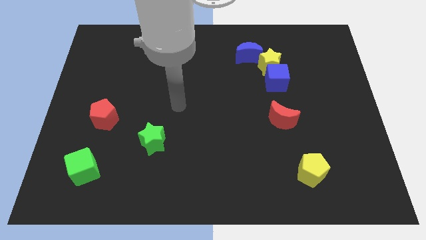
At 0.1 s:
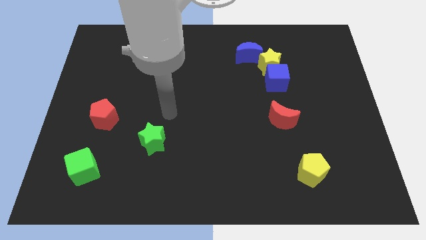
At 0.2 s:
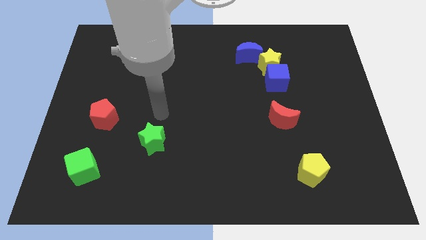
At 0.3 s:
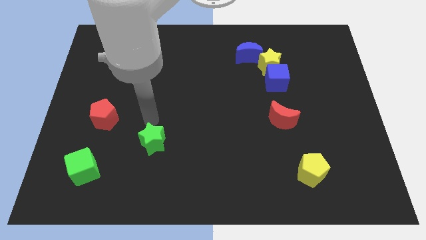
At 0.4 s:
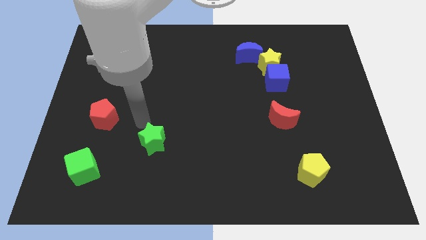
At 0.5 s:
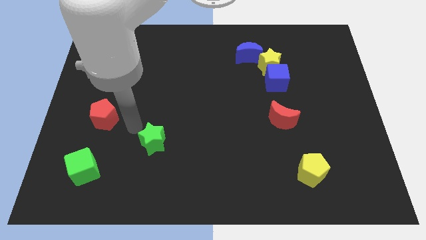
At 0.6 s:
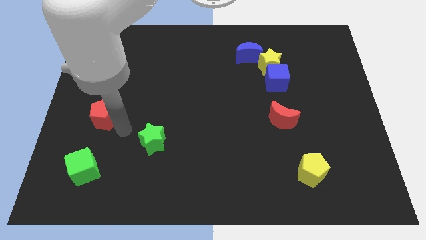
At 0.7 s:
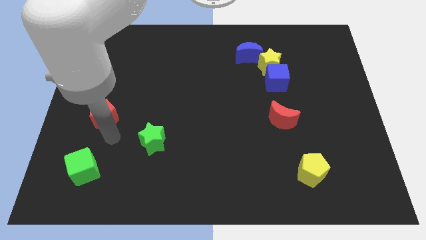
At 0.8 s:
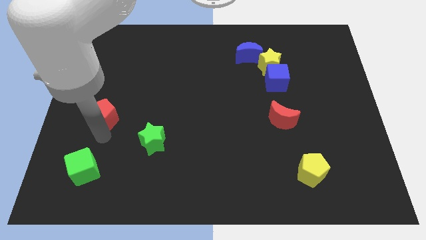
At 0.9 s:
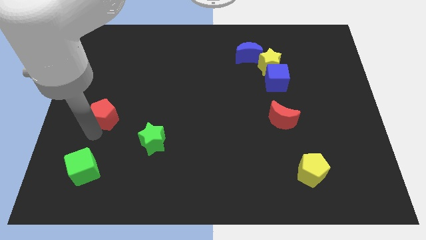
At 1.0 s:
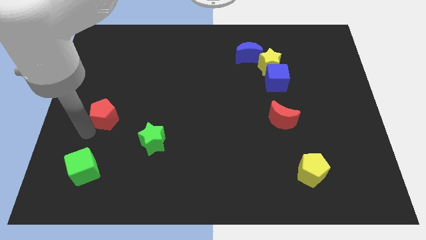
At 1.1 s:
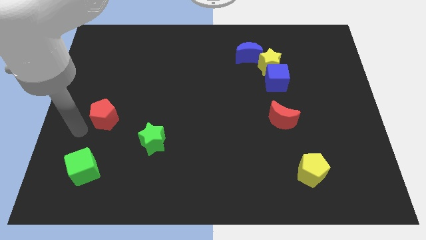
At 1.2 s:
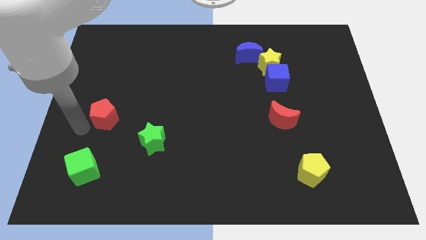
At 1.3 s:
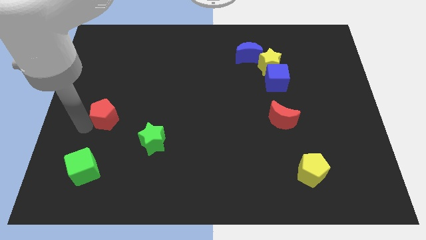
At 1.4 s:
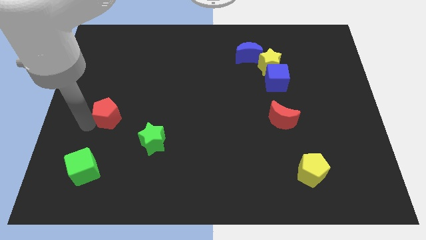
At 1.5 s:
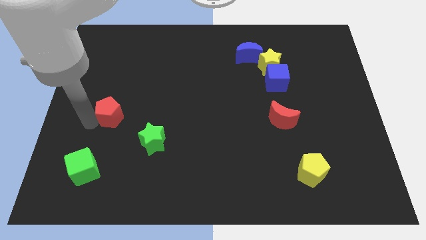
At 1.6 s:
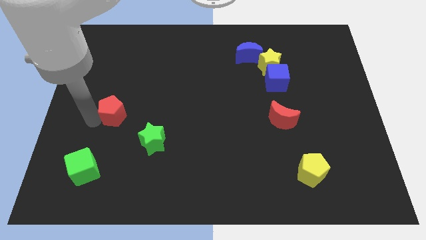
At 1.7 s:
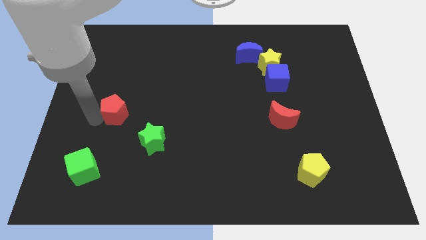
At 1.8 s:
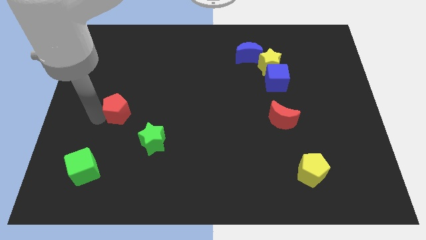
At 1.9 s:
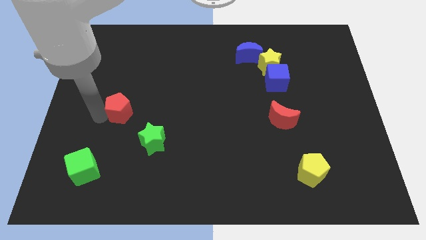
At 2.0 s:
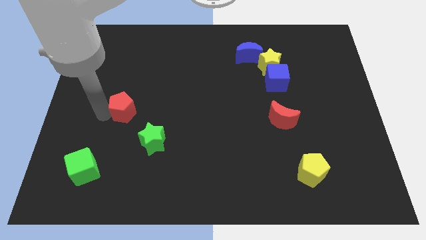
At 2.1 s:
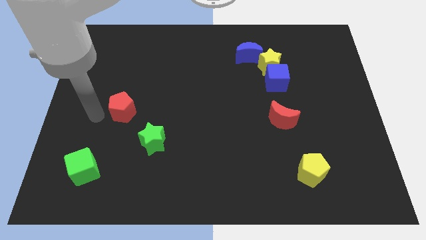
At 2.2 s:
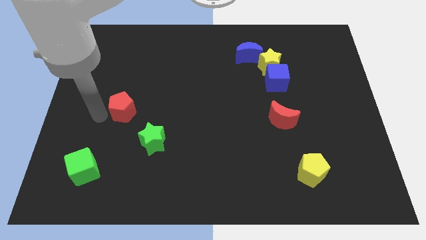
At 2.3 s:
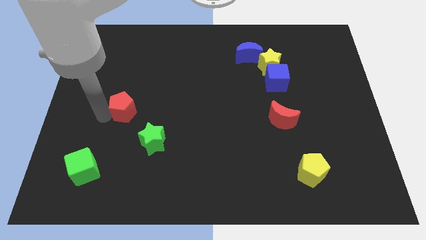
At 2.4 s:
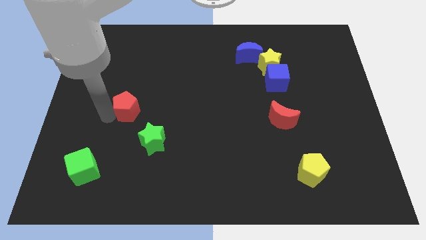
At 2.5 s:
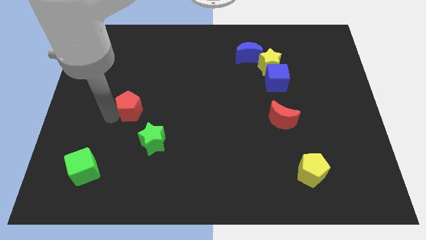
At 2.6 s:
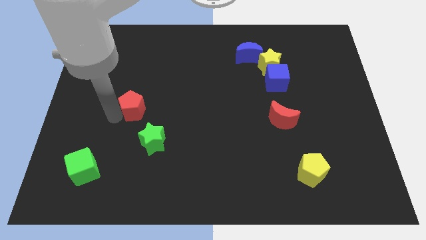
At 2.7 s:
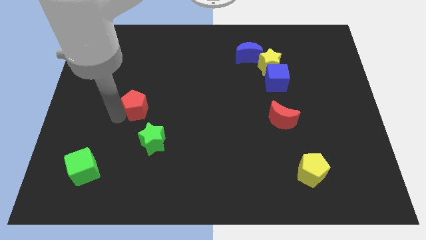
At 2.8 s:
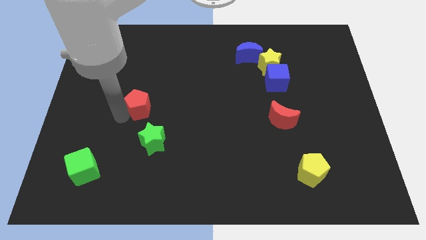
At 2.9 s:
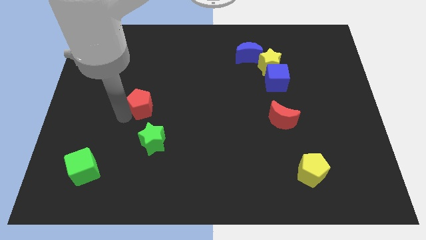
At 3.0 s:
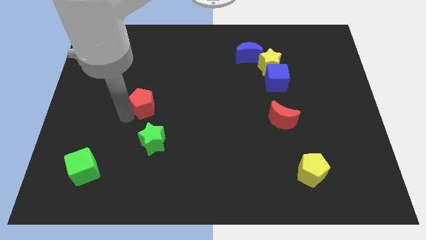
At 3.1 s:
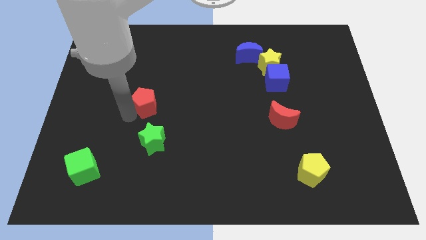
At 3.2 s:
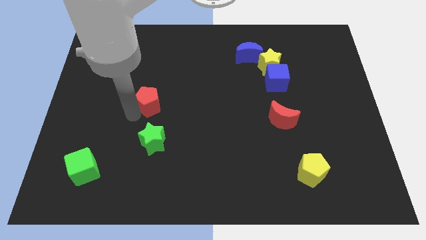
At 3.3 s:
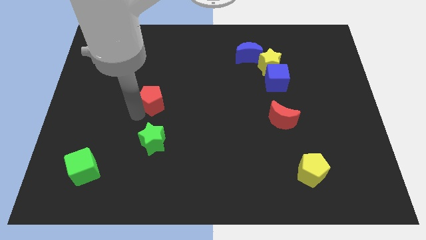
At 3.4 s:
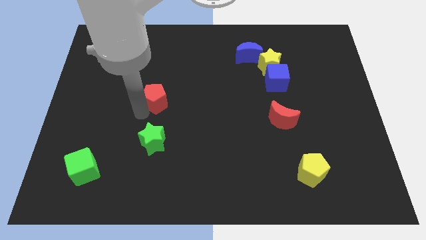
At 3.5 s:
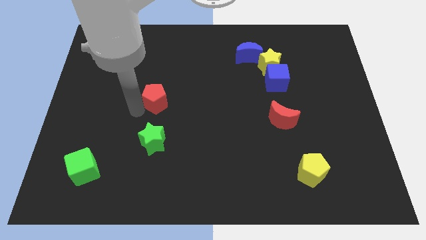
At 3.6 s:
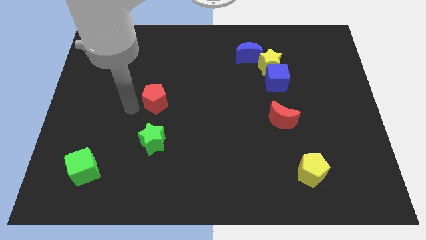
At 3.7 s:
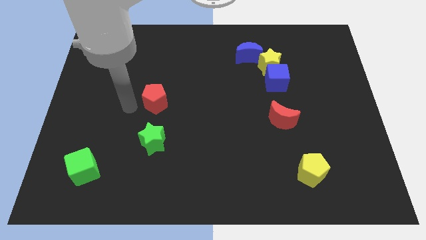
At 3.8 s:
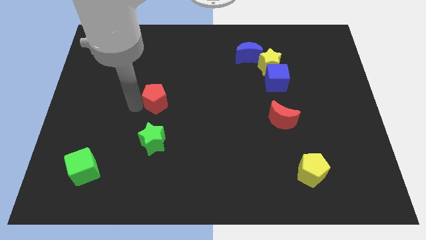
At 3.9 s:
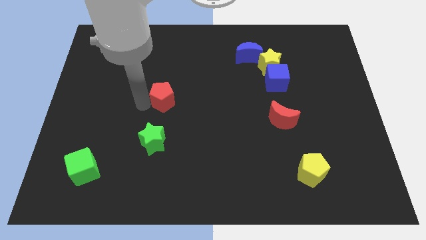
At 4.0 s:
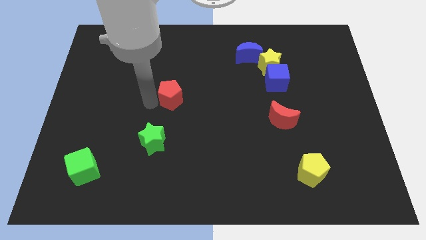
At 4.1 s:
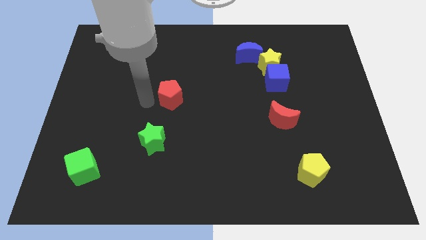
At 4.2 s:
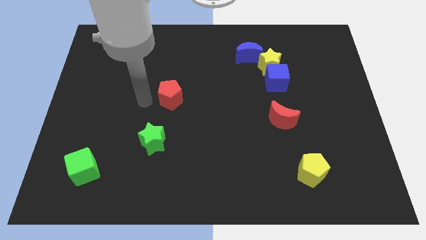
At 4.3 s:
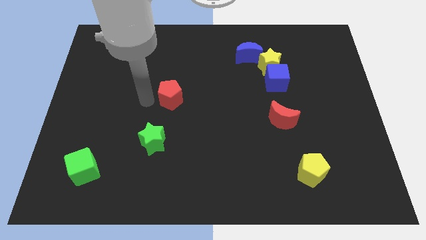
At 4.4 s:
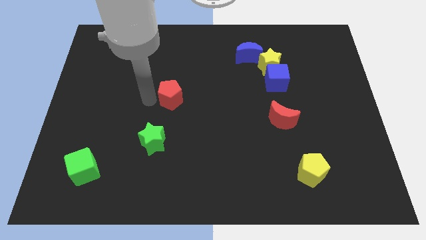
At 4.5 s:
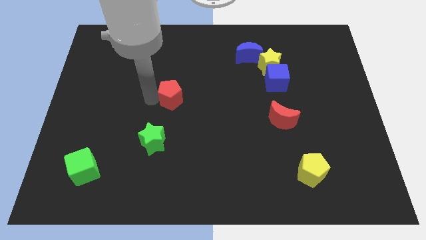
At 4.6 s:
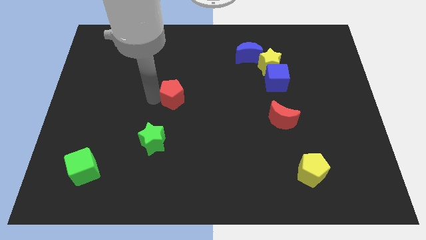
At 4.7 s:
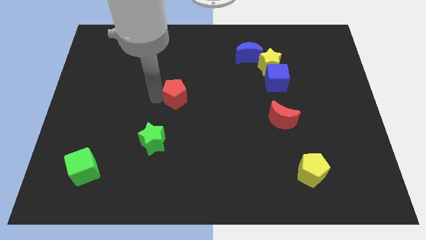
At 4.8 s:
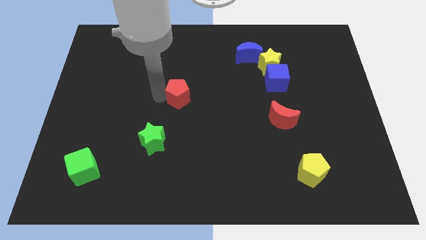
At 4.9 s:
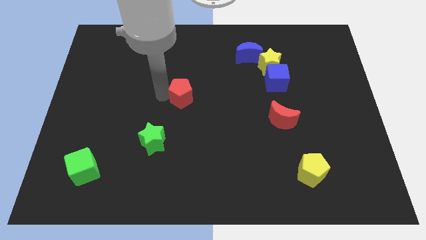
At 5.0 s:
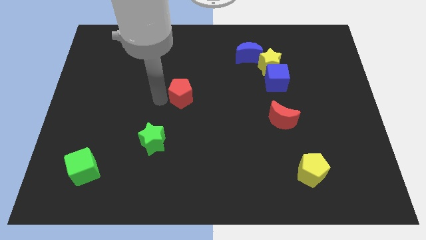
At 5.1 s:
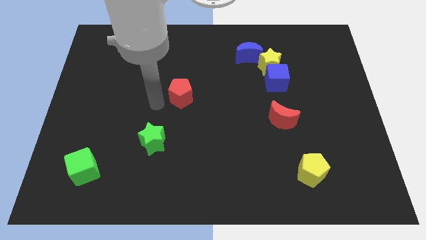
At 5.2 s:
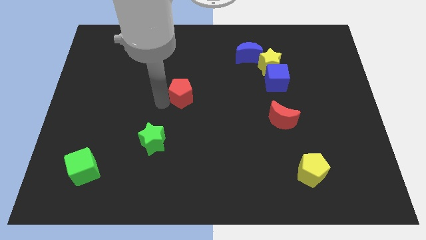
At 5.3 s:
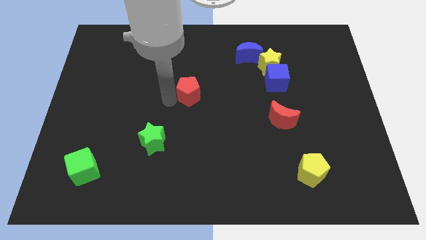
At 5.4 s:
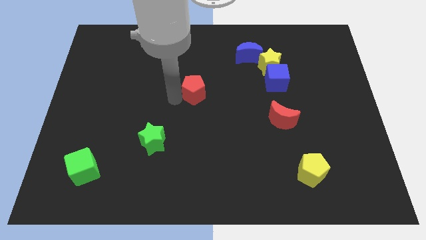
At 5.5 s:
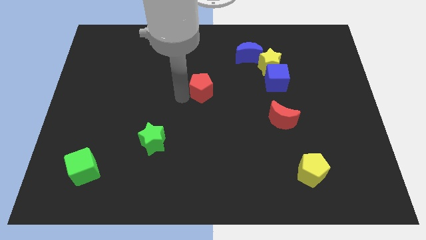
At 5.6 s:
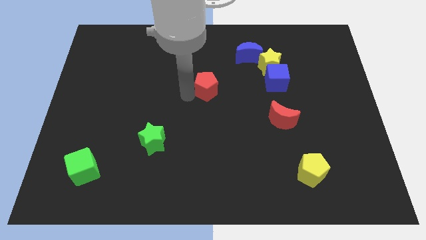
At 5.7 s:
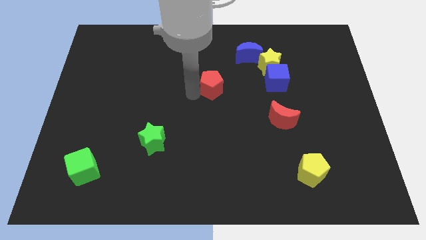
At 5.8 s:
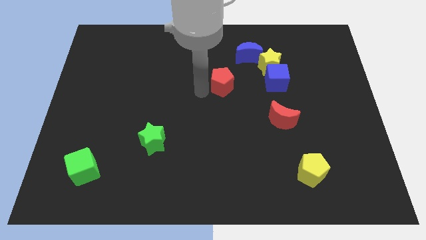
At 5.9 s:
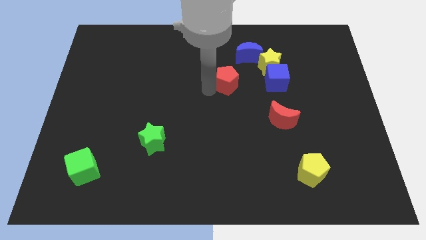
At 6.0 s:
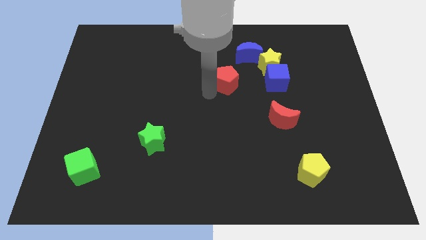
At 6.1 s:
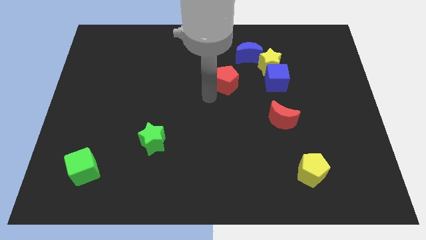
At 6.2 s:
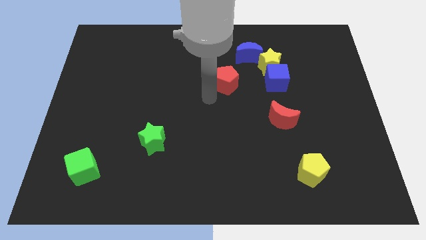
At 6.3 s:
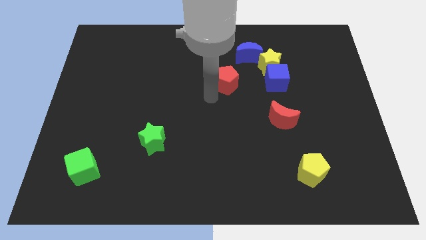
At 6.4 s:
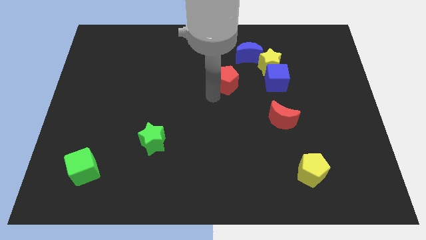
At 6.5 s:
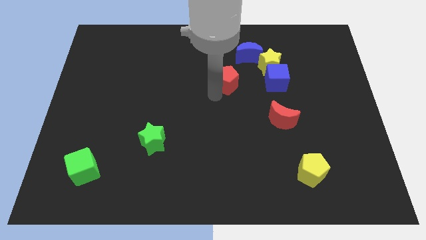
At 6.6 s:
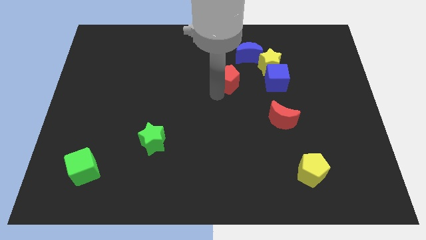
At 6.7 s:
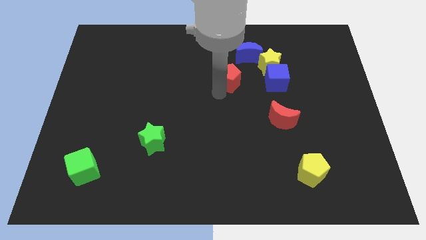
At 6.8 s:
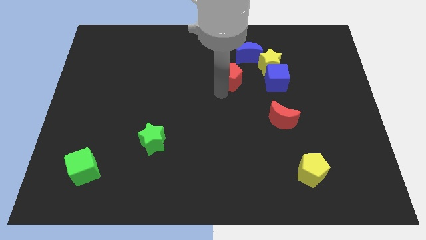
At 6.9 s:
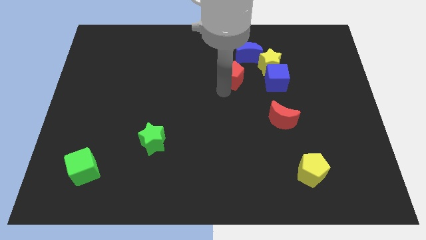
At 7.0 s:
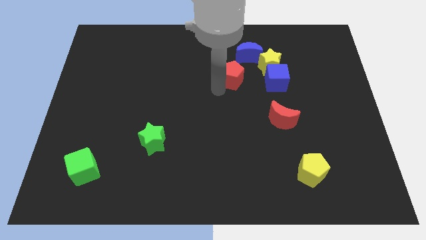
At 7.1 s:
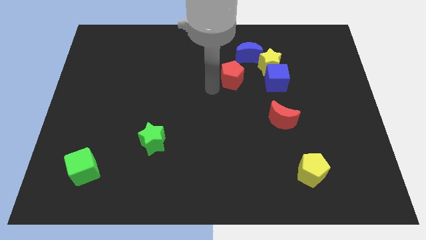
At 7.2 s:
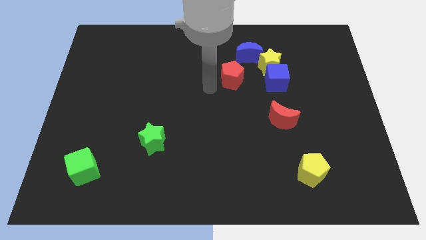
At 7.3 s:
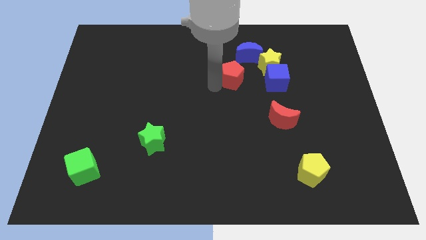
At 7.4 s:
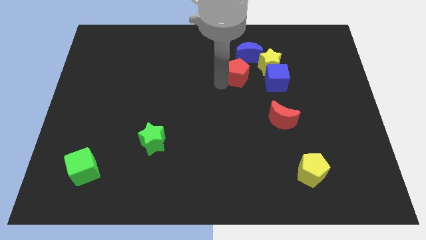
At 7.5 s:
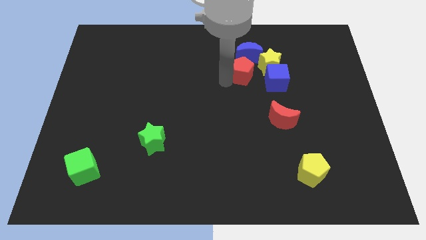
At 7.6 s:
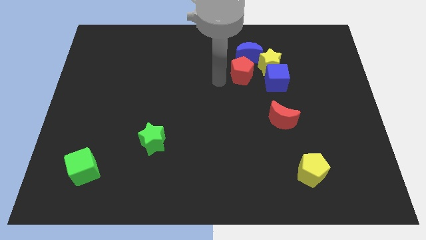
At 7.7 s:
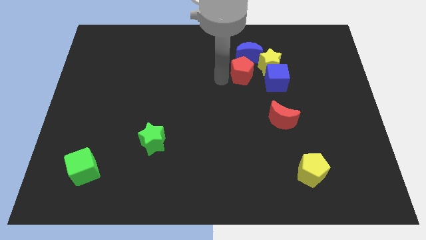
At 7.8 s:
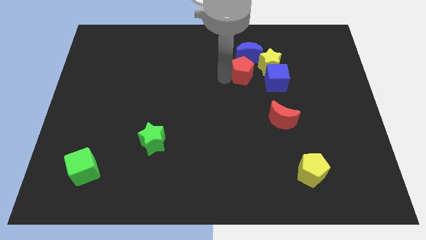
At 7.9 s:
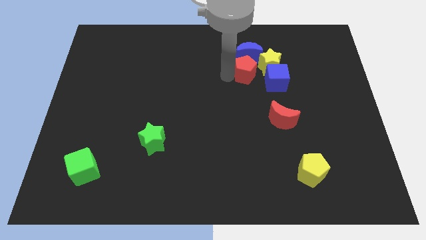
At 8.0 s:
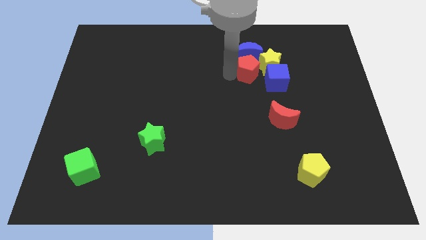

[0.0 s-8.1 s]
slide the red pentagon next to the yellow star
